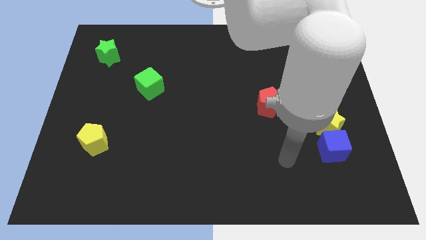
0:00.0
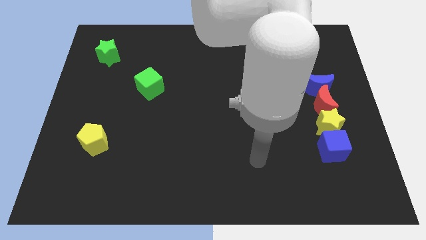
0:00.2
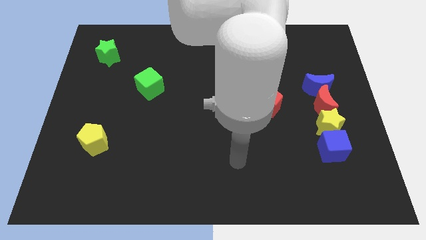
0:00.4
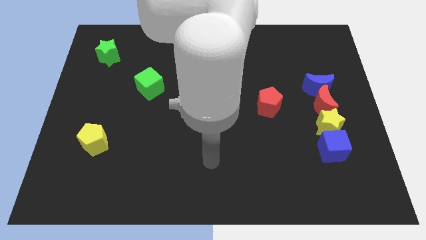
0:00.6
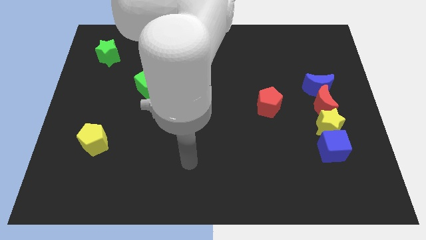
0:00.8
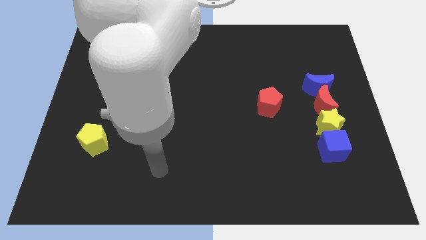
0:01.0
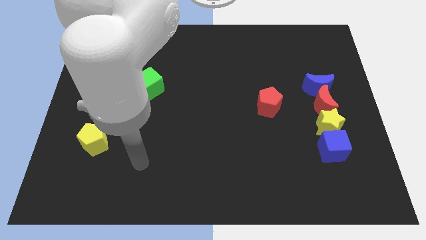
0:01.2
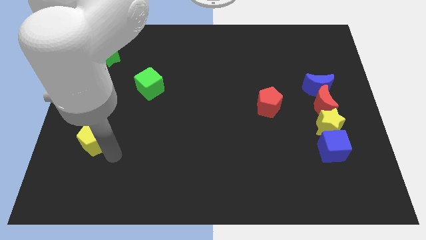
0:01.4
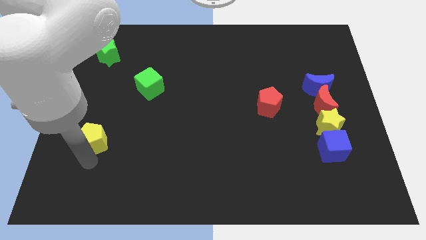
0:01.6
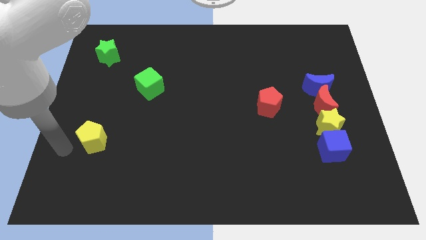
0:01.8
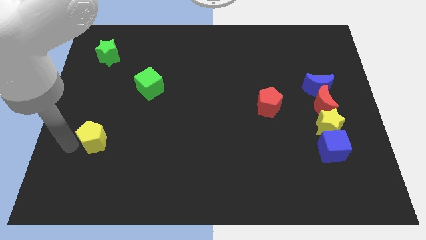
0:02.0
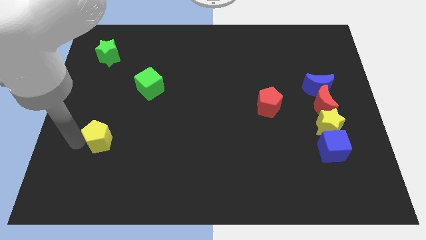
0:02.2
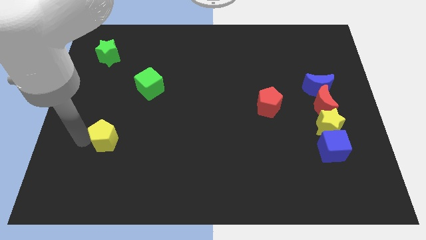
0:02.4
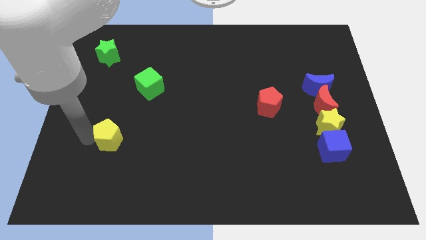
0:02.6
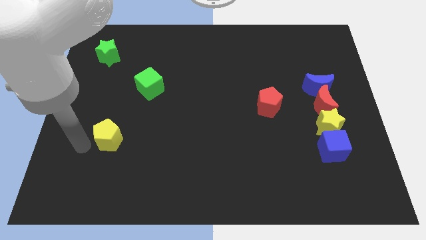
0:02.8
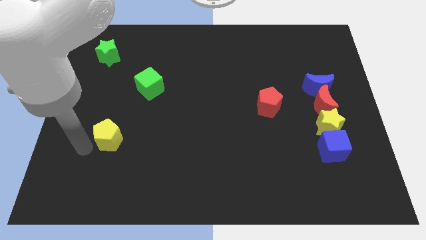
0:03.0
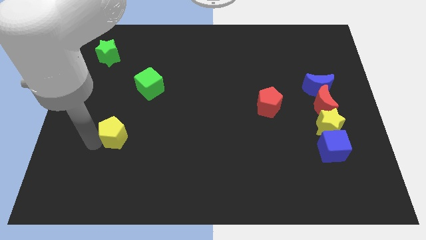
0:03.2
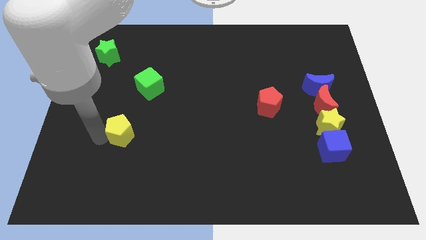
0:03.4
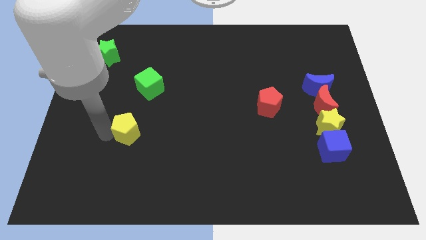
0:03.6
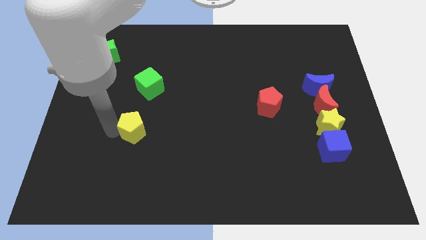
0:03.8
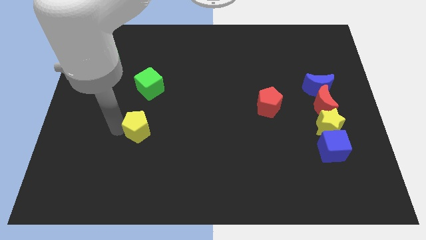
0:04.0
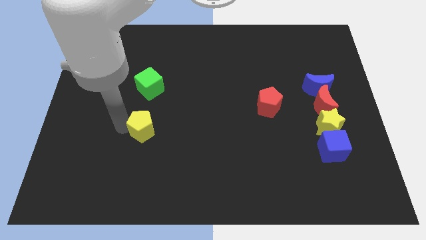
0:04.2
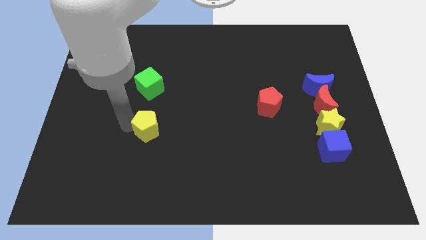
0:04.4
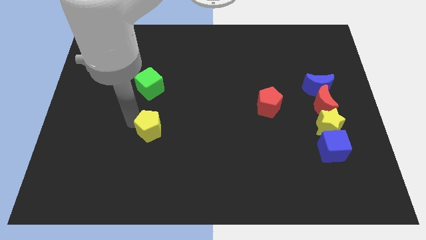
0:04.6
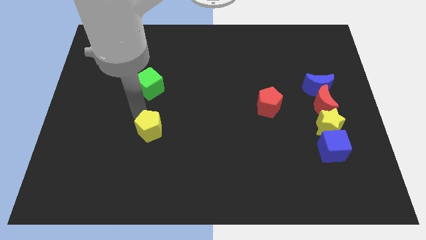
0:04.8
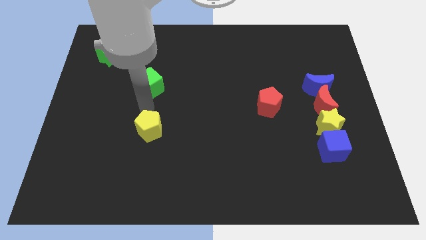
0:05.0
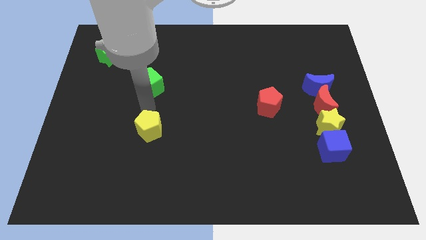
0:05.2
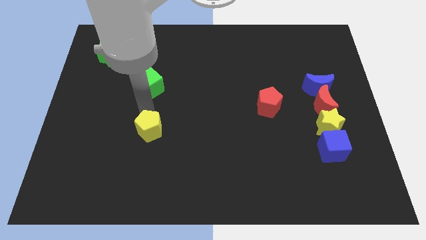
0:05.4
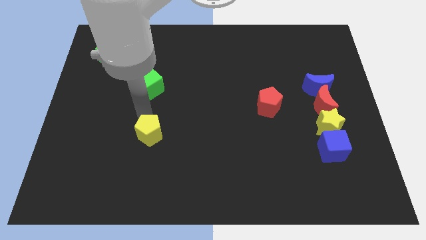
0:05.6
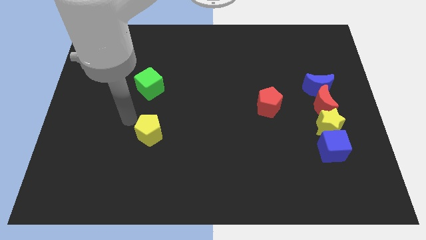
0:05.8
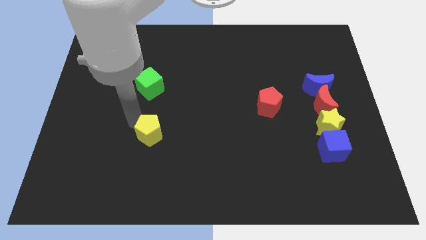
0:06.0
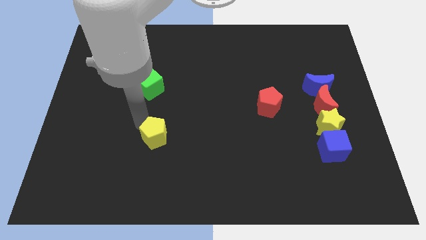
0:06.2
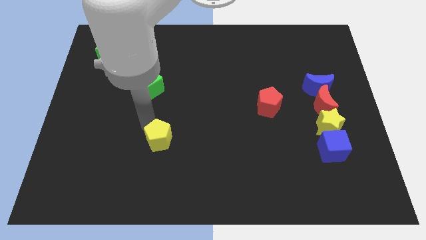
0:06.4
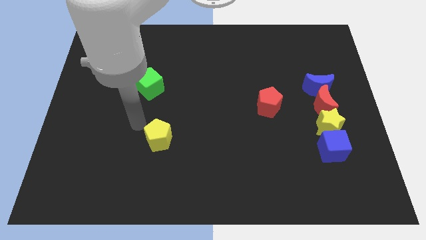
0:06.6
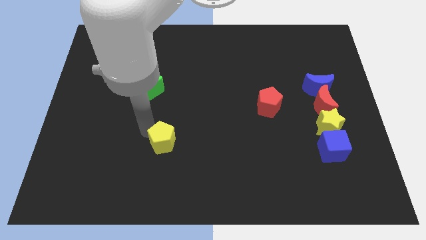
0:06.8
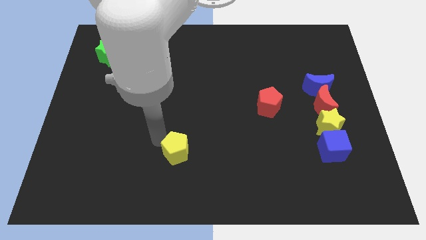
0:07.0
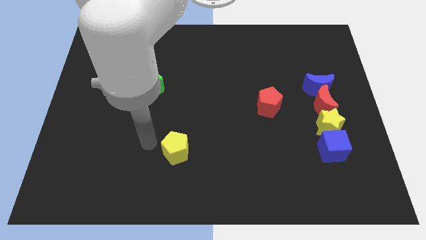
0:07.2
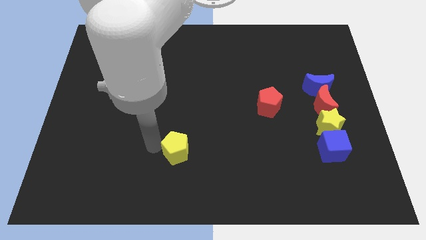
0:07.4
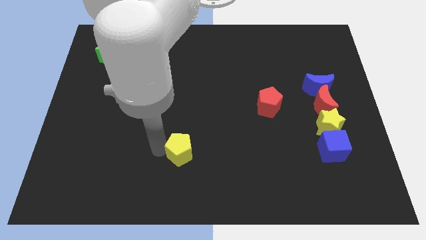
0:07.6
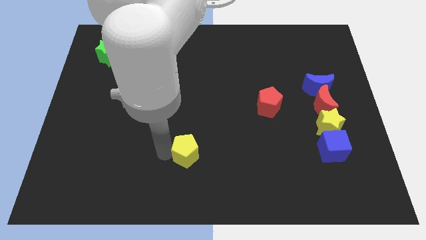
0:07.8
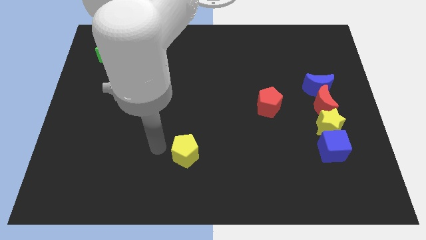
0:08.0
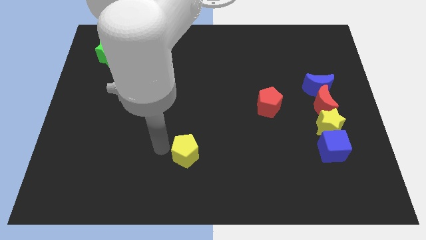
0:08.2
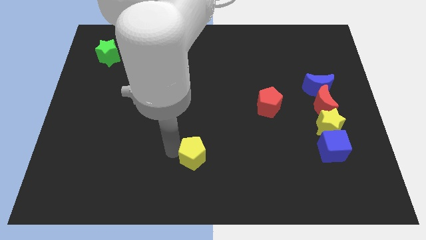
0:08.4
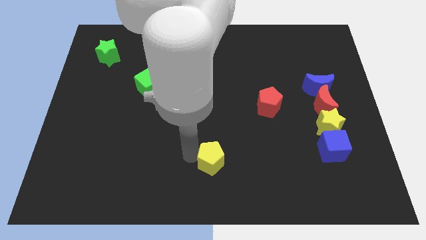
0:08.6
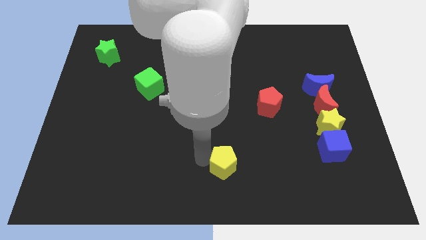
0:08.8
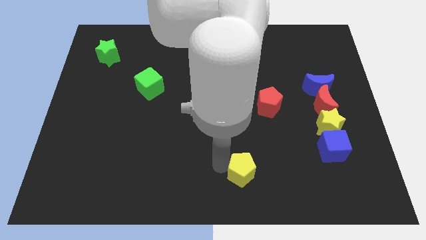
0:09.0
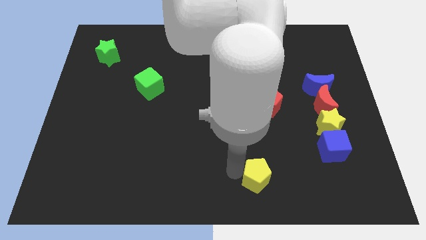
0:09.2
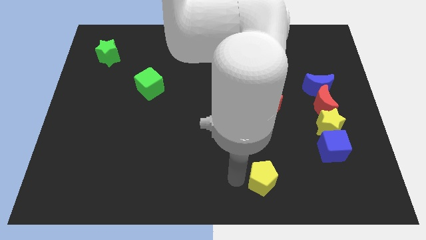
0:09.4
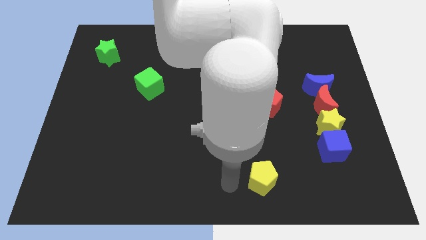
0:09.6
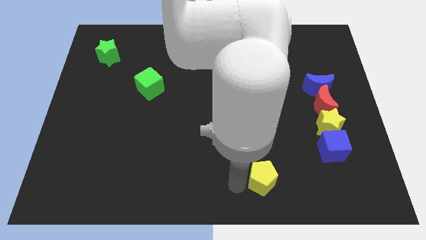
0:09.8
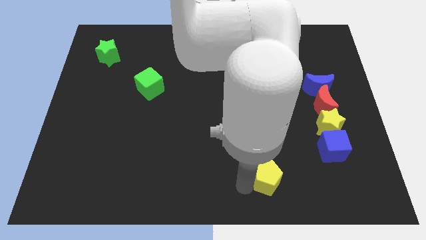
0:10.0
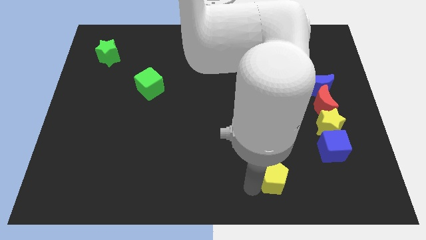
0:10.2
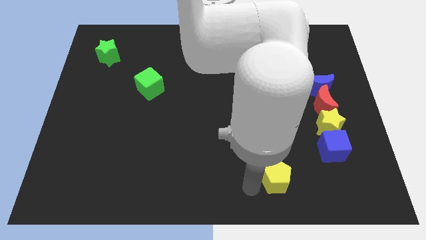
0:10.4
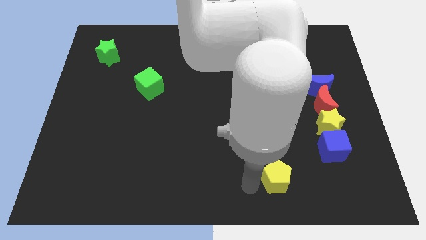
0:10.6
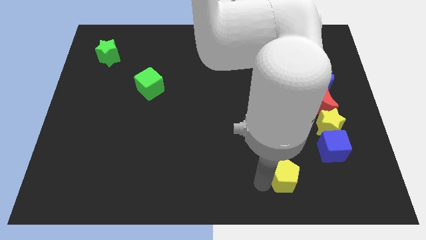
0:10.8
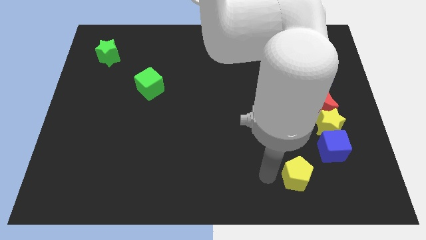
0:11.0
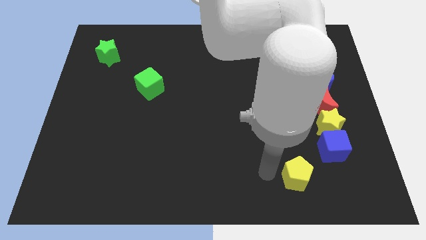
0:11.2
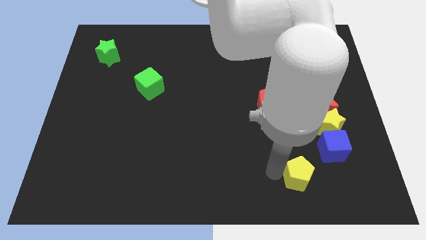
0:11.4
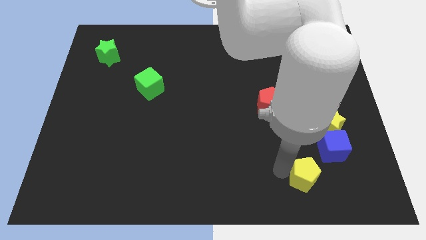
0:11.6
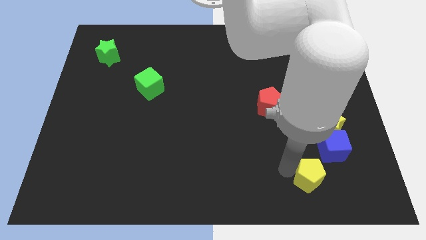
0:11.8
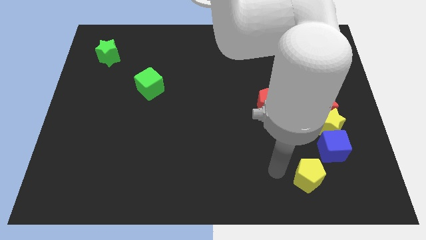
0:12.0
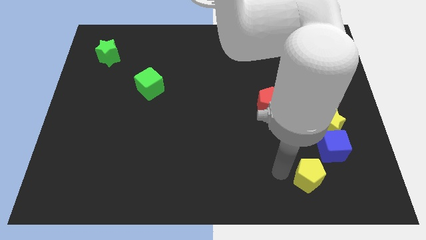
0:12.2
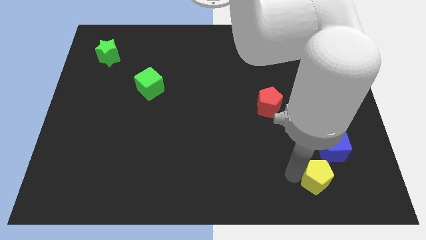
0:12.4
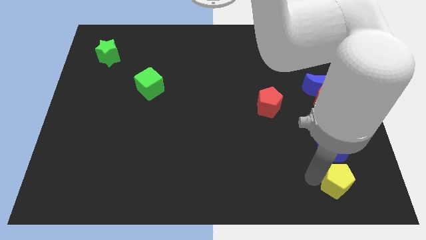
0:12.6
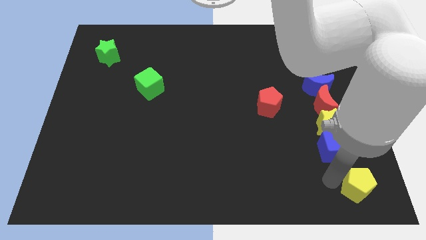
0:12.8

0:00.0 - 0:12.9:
move the yellow pentagon to the bottom right of the board
